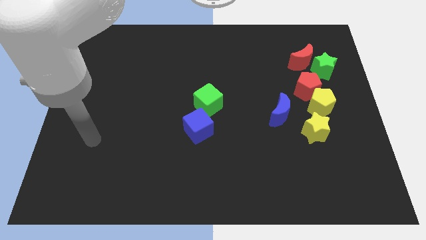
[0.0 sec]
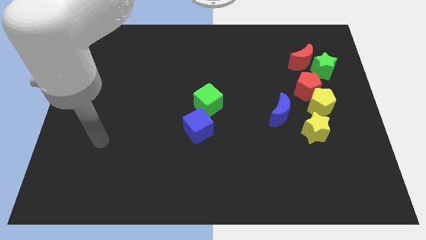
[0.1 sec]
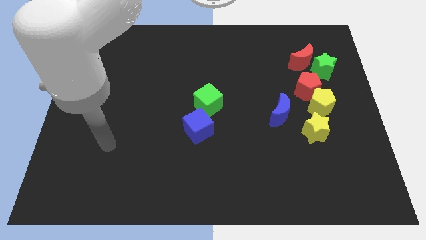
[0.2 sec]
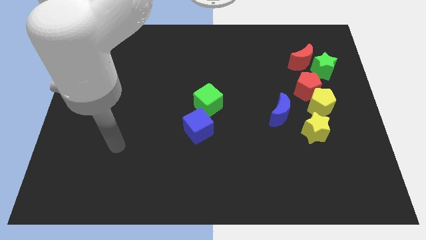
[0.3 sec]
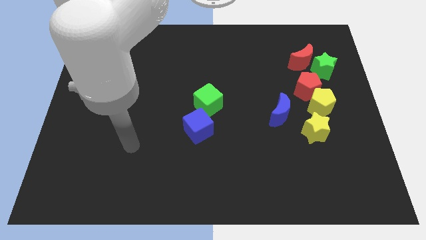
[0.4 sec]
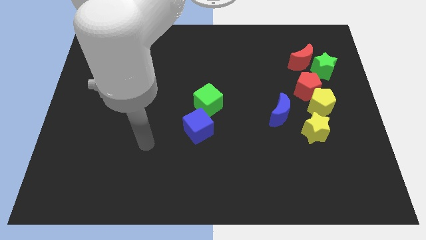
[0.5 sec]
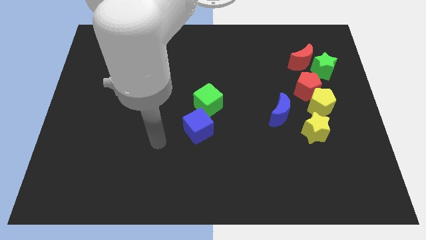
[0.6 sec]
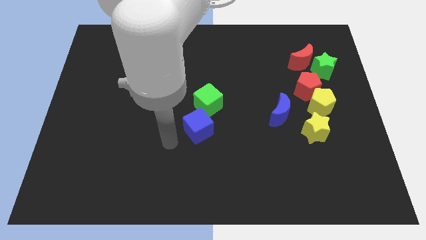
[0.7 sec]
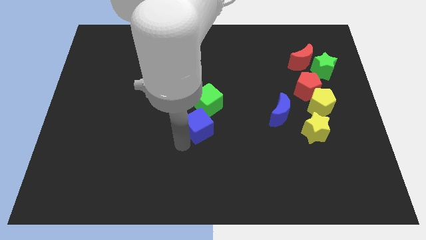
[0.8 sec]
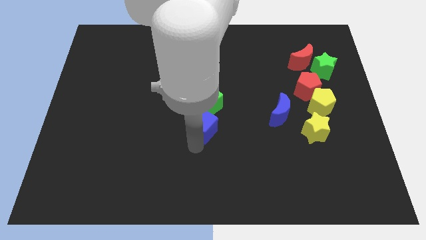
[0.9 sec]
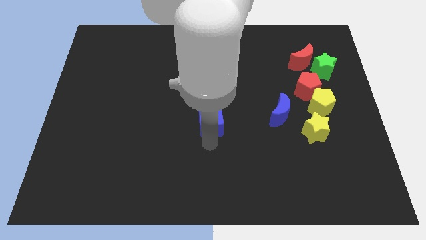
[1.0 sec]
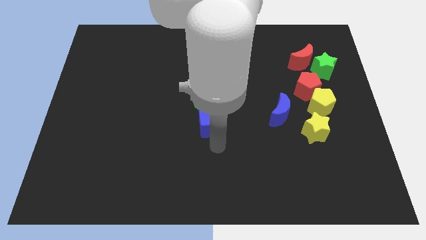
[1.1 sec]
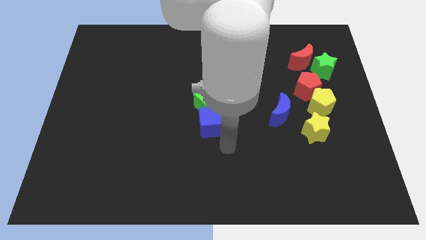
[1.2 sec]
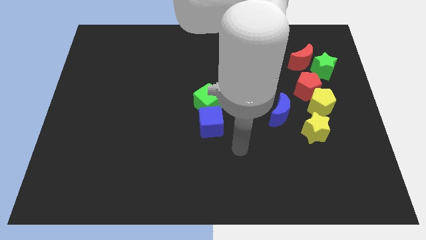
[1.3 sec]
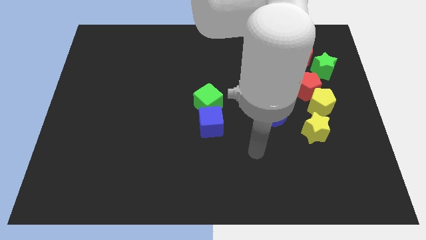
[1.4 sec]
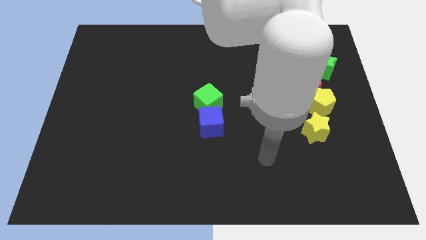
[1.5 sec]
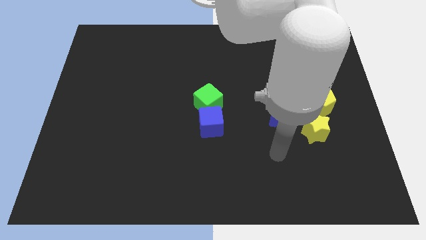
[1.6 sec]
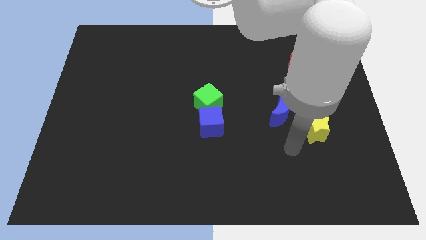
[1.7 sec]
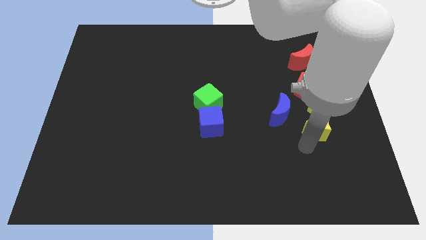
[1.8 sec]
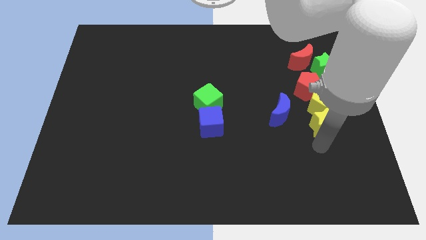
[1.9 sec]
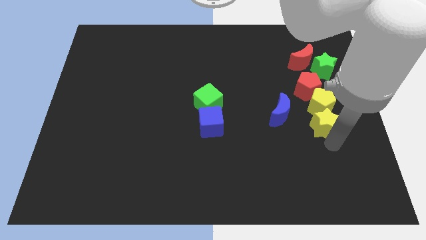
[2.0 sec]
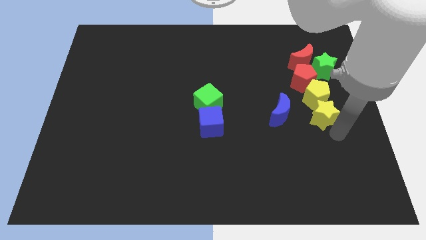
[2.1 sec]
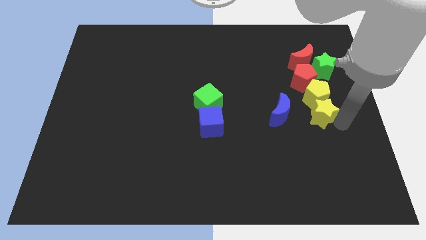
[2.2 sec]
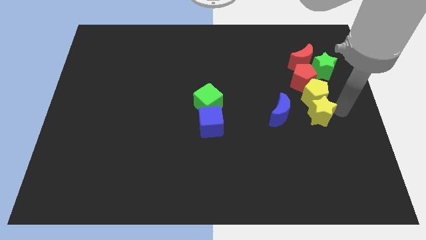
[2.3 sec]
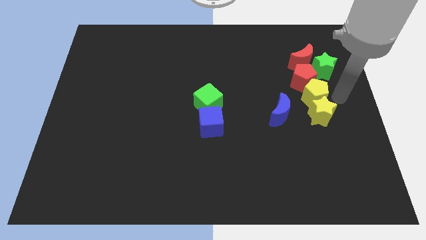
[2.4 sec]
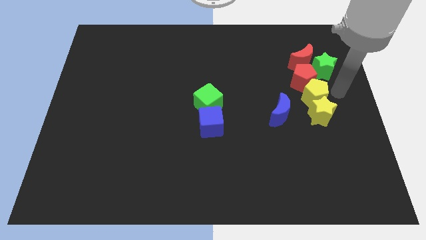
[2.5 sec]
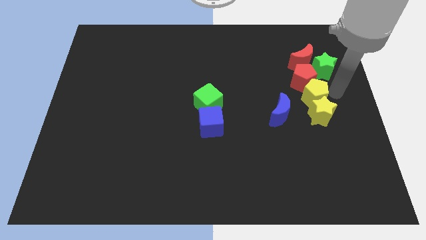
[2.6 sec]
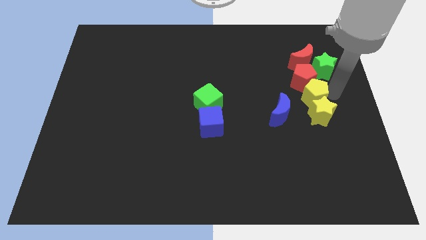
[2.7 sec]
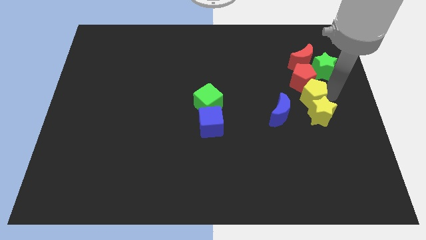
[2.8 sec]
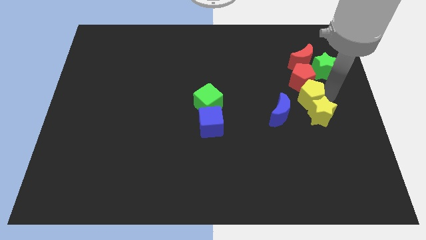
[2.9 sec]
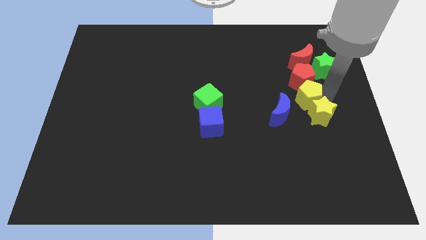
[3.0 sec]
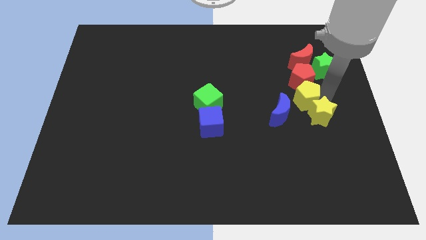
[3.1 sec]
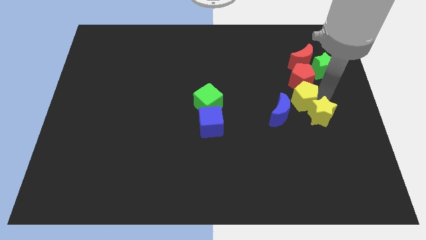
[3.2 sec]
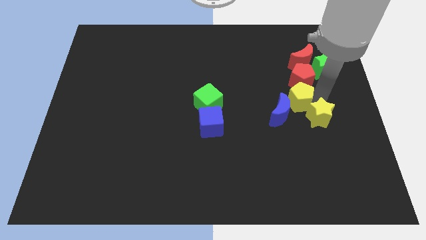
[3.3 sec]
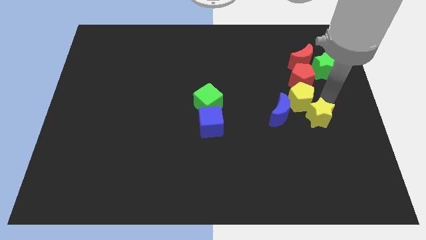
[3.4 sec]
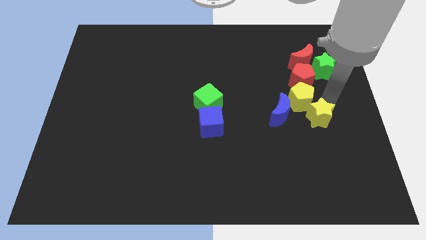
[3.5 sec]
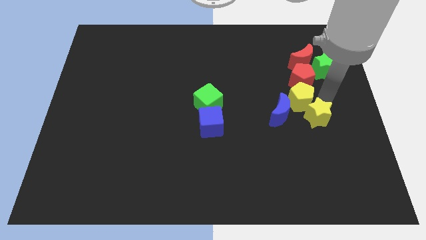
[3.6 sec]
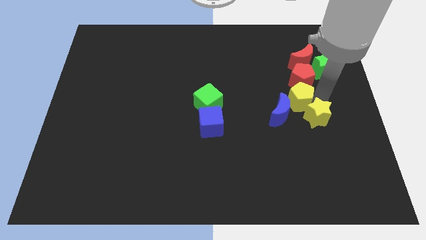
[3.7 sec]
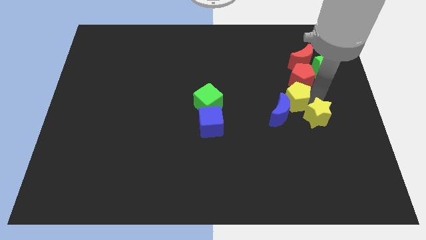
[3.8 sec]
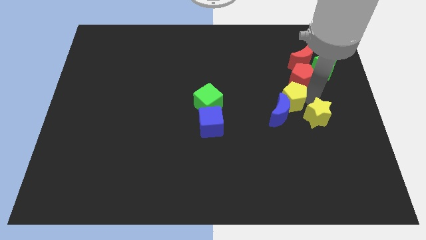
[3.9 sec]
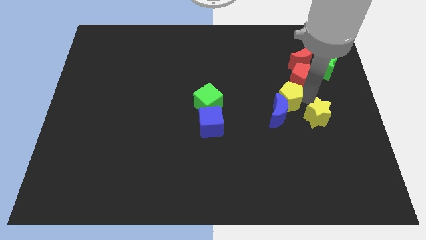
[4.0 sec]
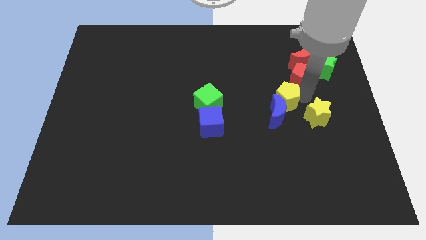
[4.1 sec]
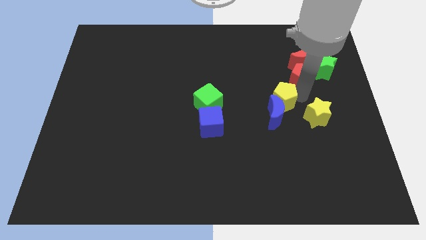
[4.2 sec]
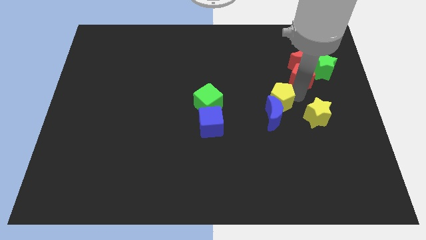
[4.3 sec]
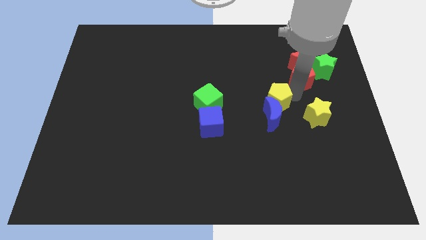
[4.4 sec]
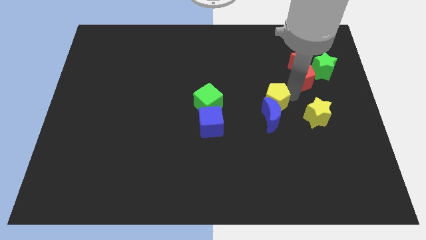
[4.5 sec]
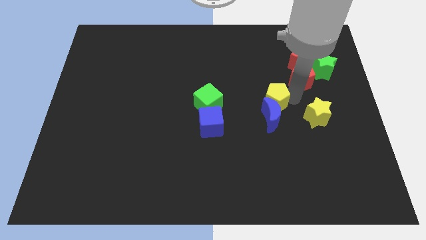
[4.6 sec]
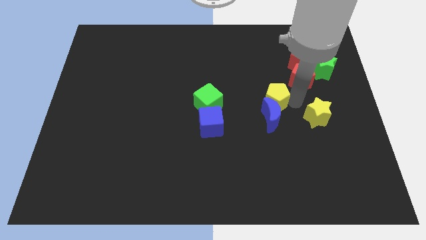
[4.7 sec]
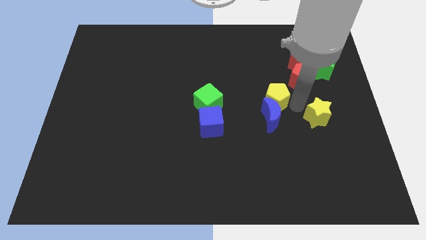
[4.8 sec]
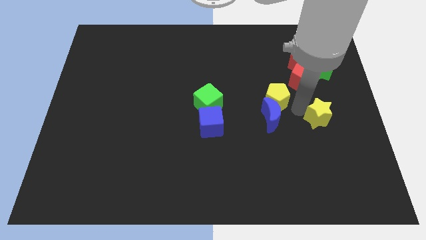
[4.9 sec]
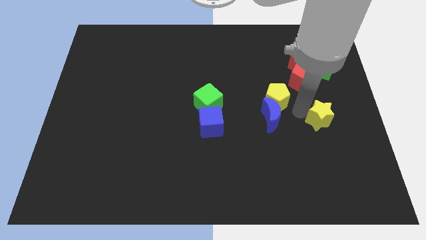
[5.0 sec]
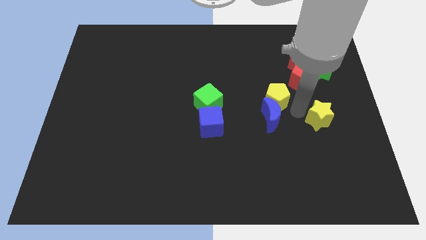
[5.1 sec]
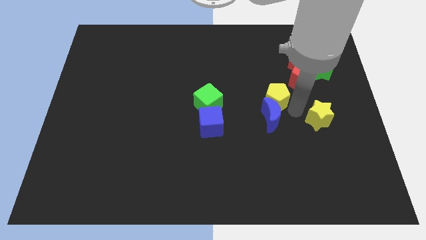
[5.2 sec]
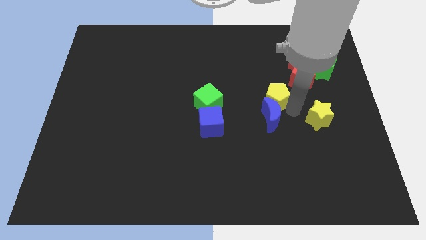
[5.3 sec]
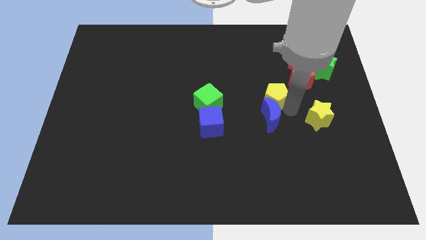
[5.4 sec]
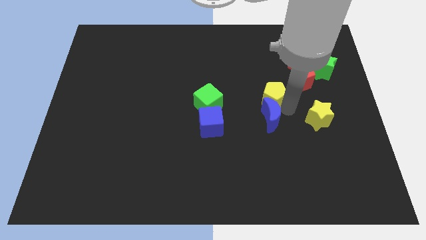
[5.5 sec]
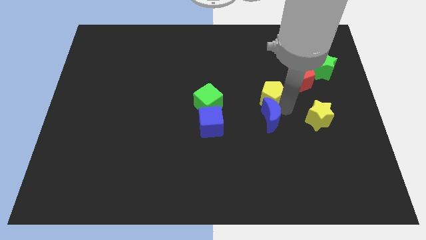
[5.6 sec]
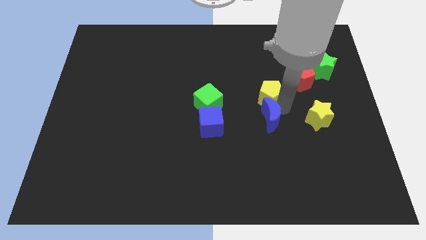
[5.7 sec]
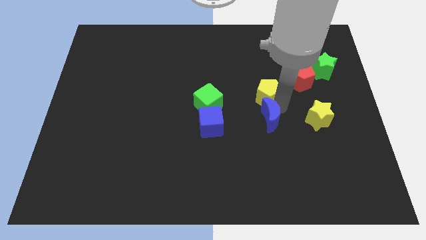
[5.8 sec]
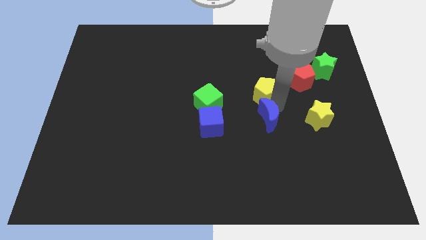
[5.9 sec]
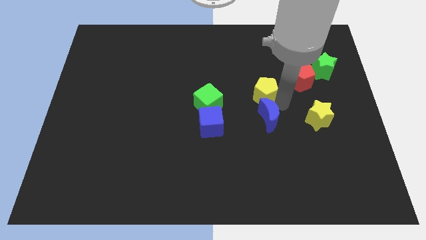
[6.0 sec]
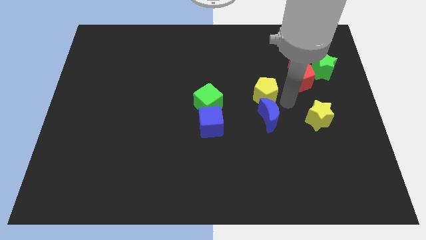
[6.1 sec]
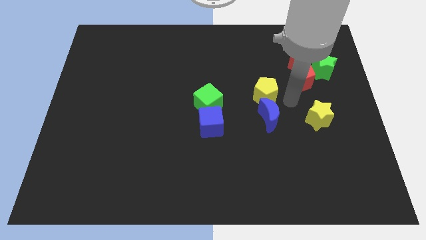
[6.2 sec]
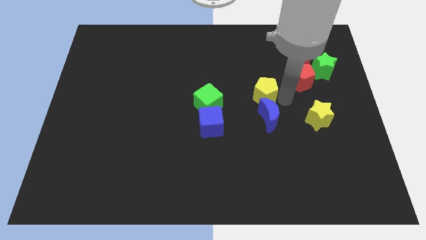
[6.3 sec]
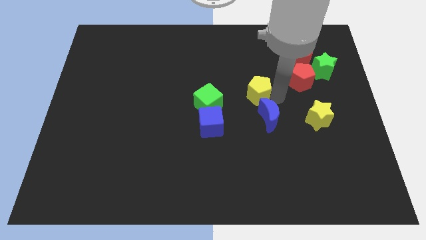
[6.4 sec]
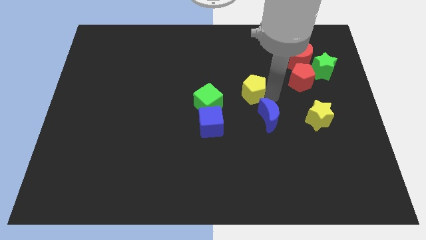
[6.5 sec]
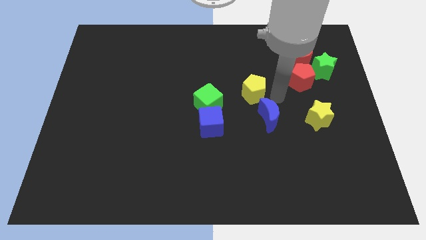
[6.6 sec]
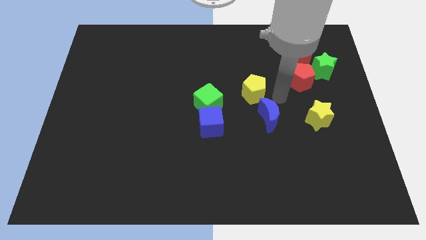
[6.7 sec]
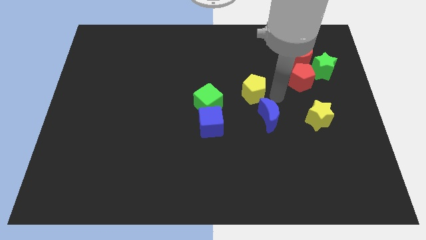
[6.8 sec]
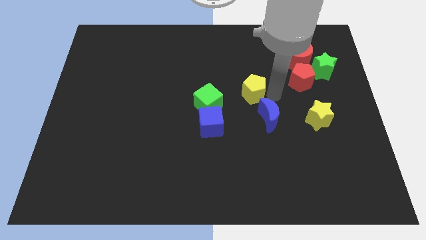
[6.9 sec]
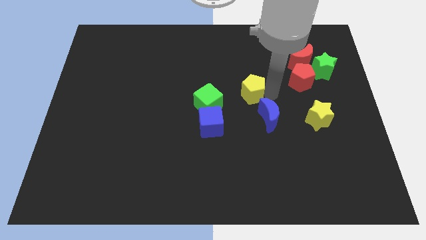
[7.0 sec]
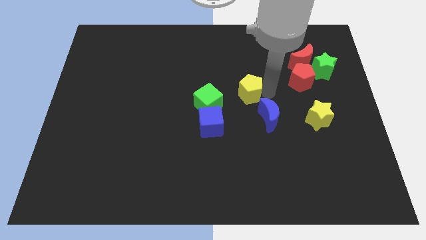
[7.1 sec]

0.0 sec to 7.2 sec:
put the yellow pentagon to the top right of the green cube

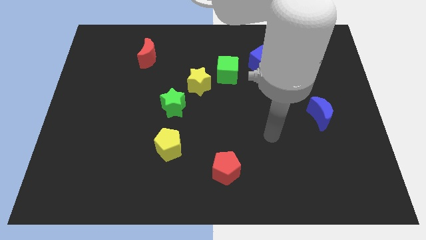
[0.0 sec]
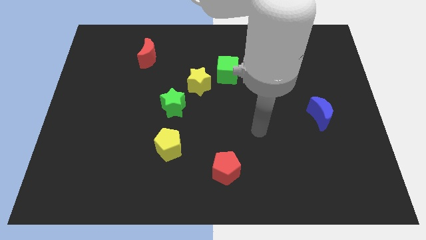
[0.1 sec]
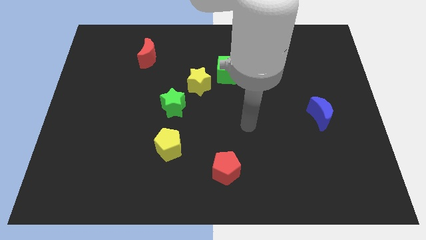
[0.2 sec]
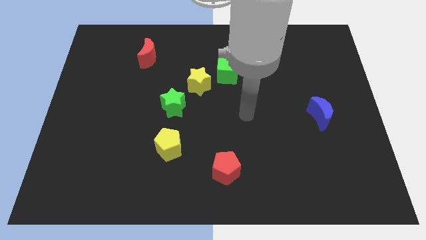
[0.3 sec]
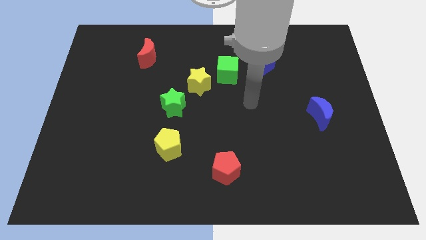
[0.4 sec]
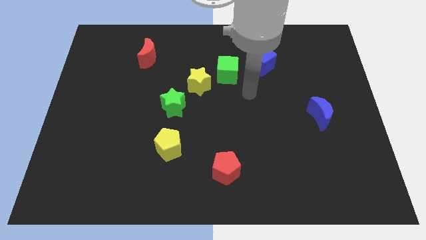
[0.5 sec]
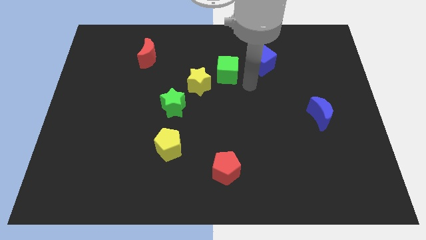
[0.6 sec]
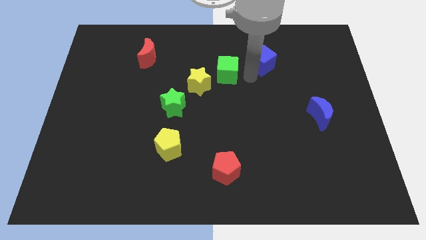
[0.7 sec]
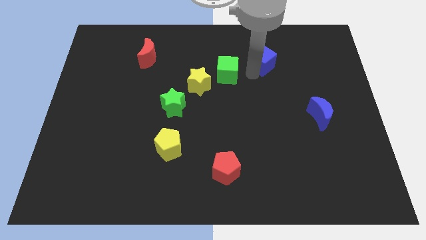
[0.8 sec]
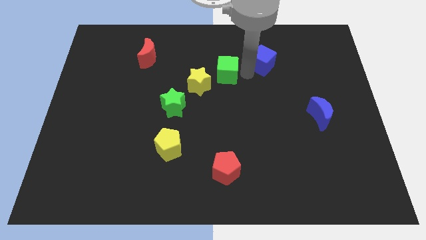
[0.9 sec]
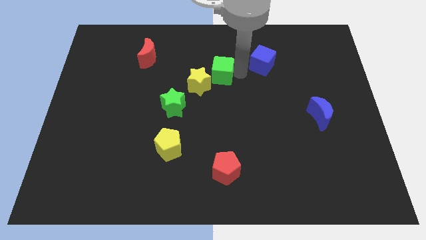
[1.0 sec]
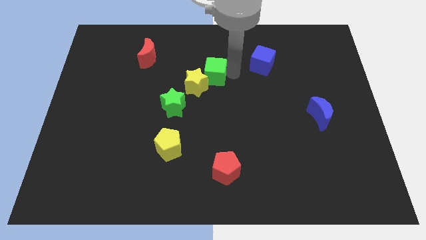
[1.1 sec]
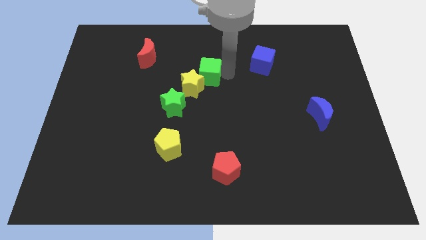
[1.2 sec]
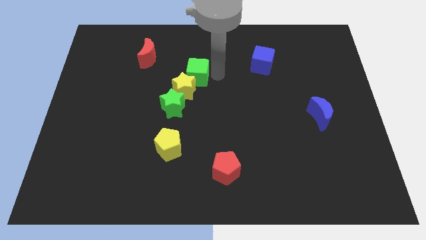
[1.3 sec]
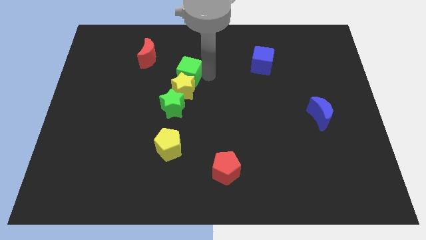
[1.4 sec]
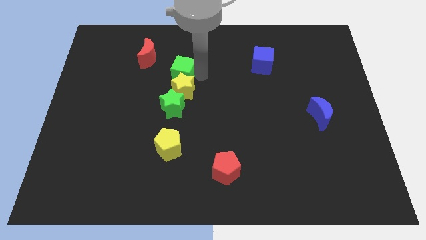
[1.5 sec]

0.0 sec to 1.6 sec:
slide the green cube to the bottom right side of the red moon
